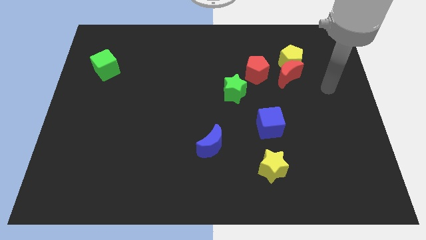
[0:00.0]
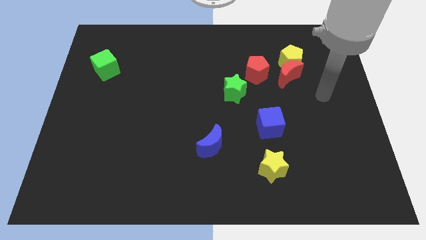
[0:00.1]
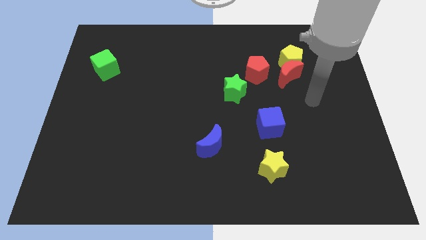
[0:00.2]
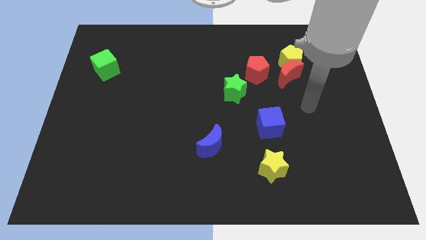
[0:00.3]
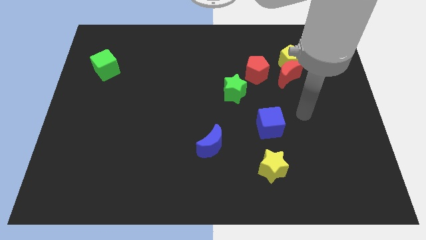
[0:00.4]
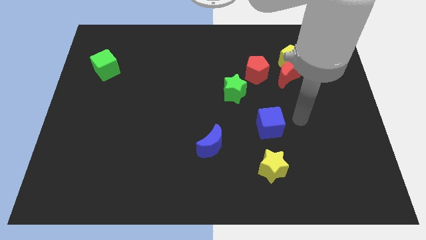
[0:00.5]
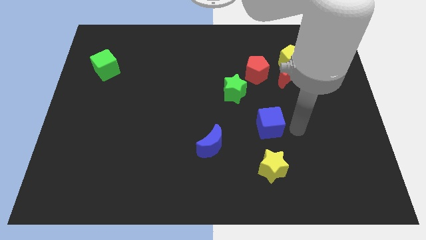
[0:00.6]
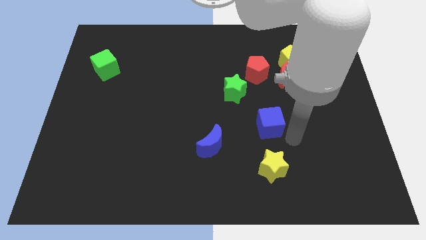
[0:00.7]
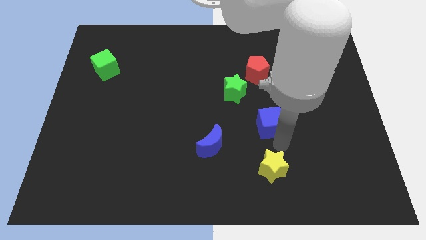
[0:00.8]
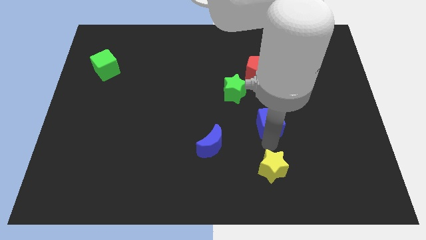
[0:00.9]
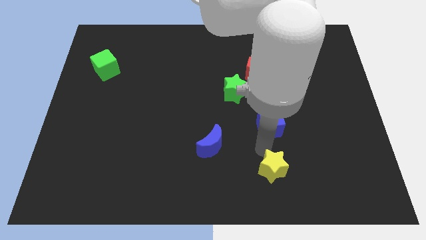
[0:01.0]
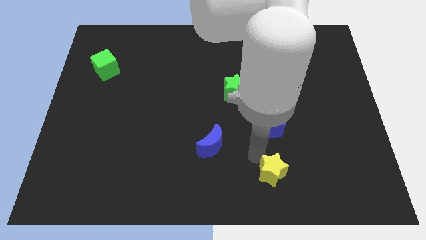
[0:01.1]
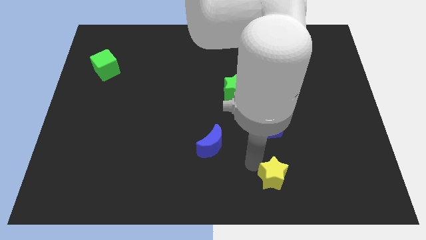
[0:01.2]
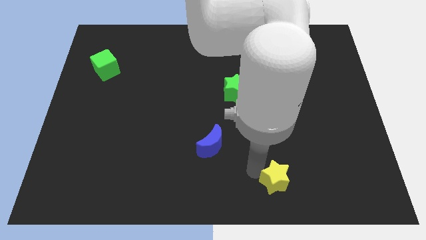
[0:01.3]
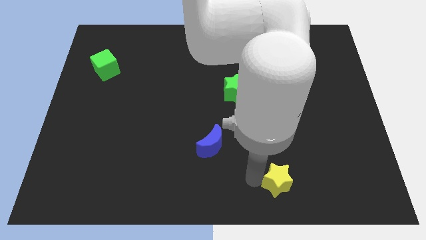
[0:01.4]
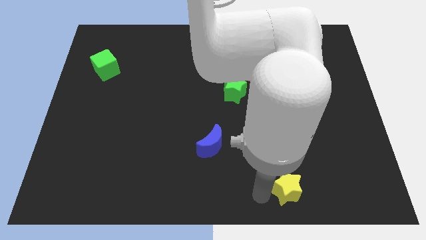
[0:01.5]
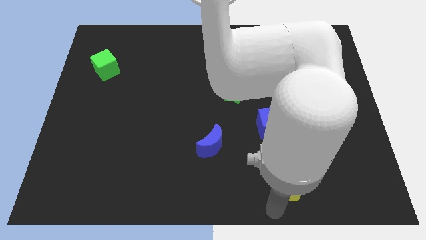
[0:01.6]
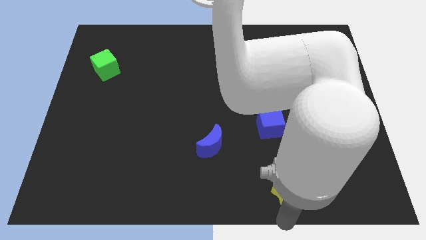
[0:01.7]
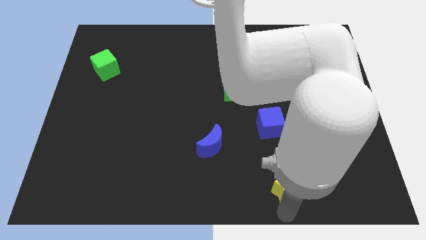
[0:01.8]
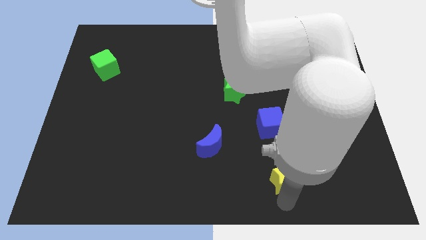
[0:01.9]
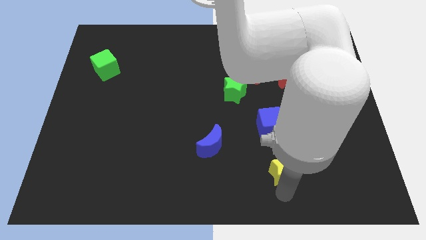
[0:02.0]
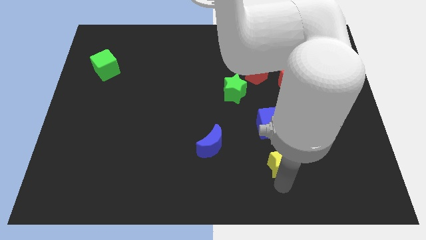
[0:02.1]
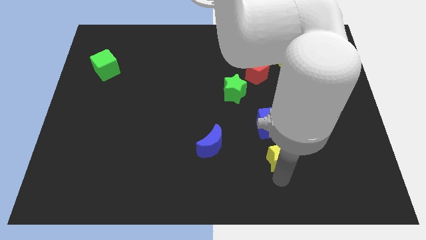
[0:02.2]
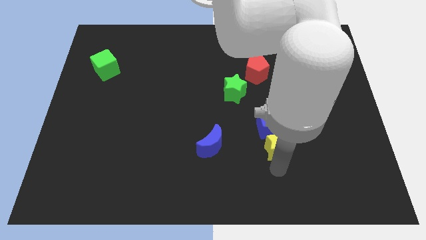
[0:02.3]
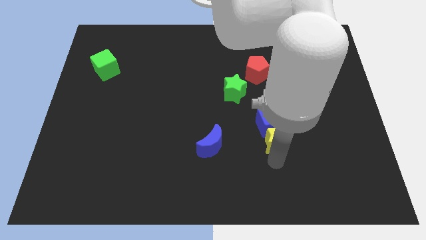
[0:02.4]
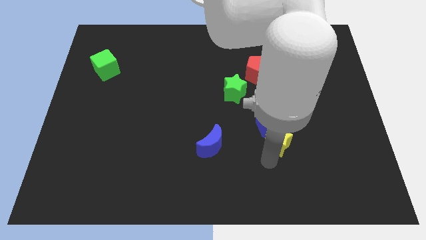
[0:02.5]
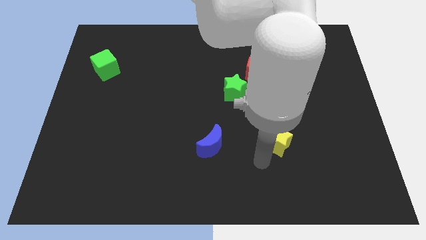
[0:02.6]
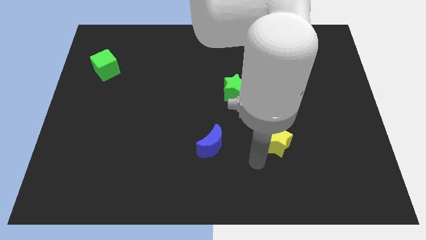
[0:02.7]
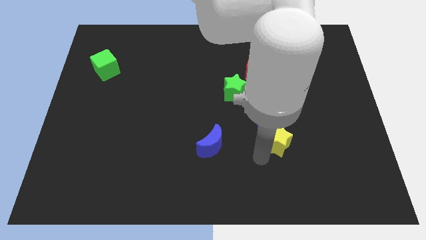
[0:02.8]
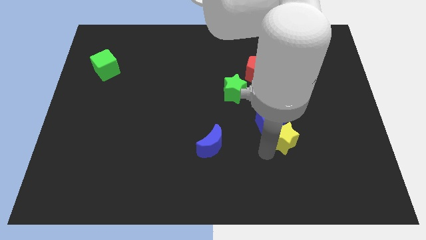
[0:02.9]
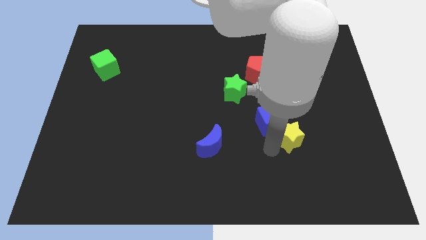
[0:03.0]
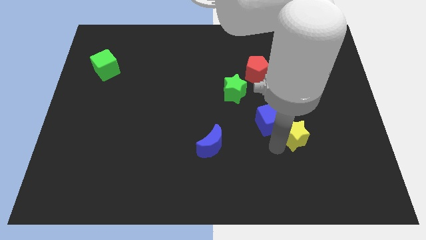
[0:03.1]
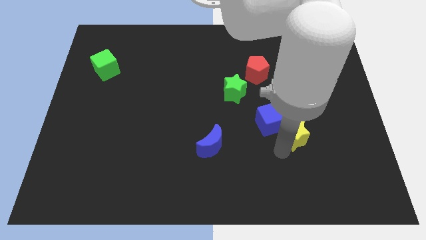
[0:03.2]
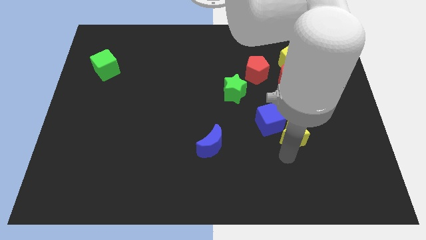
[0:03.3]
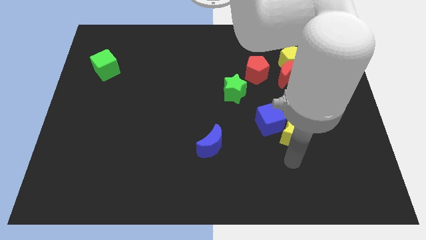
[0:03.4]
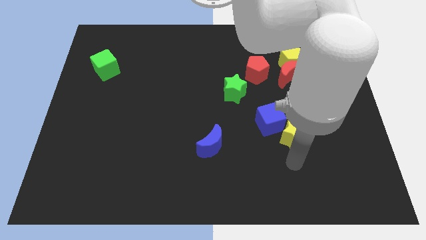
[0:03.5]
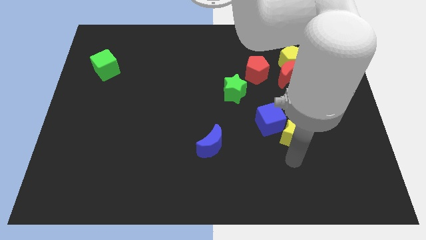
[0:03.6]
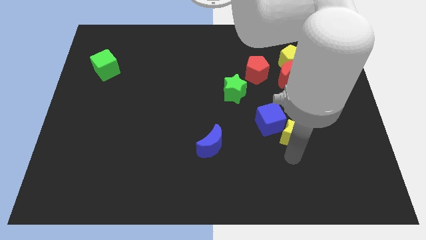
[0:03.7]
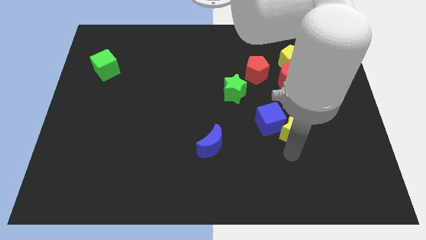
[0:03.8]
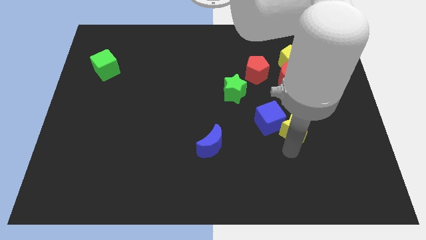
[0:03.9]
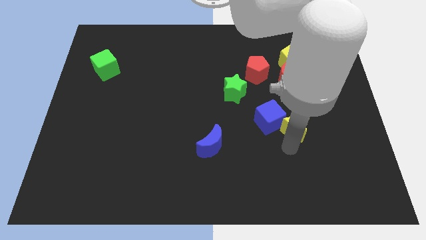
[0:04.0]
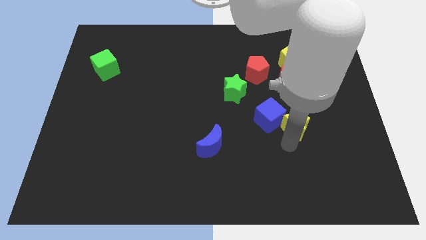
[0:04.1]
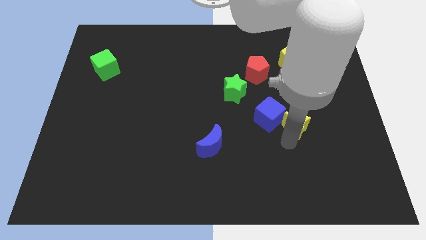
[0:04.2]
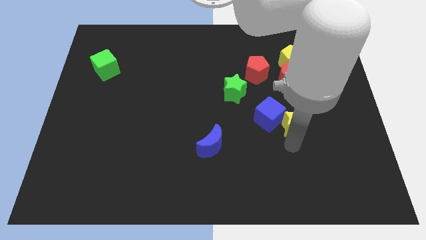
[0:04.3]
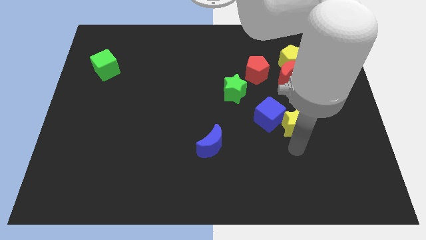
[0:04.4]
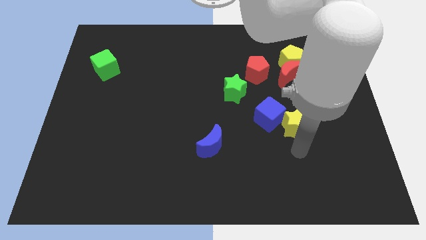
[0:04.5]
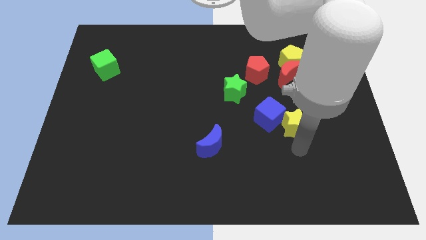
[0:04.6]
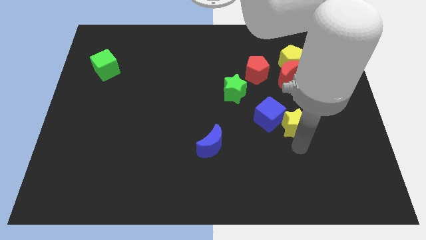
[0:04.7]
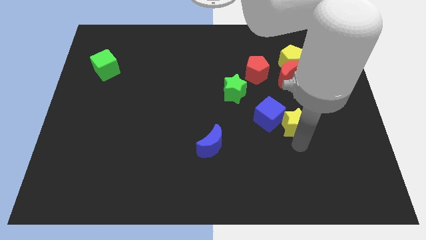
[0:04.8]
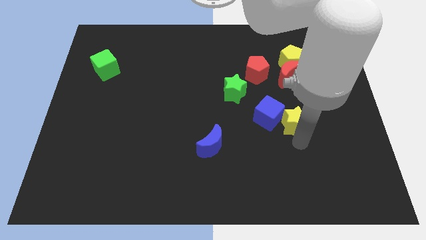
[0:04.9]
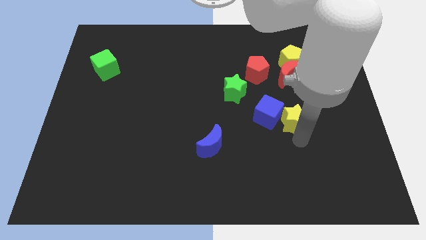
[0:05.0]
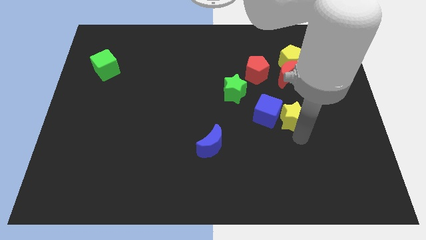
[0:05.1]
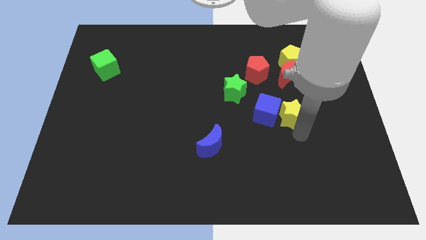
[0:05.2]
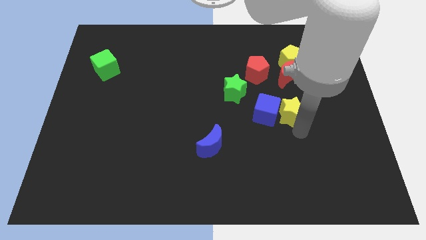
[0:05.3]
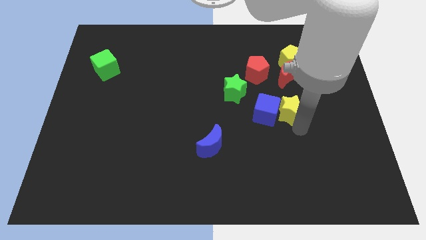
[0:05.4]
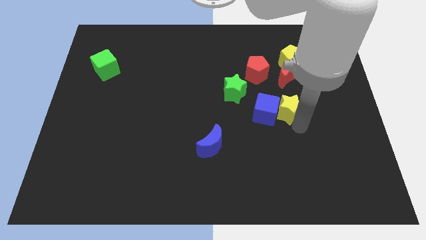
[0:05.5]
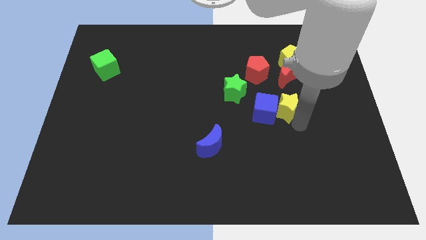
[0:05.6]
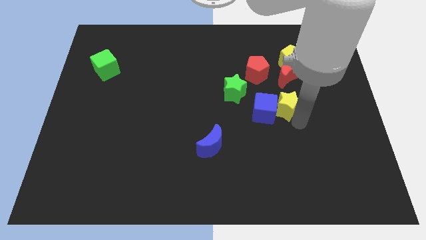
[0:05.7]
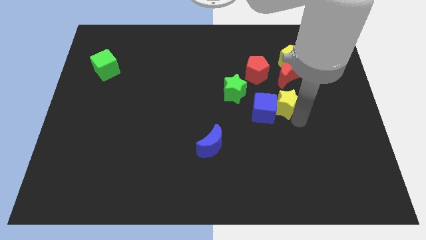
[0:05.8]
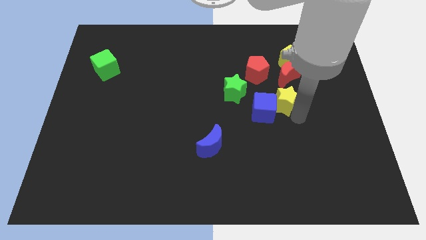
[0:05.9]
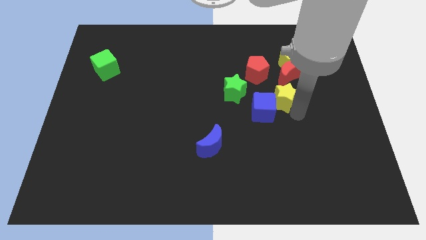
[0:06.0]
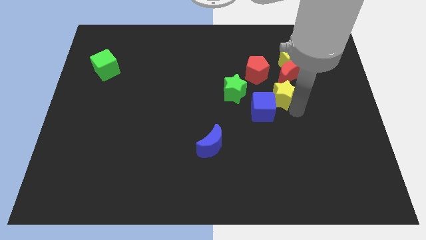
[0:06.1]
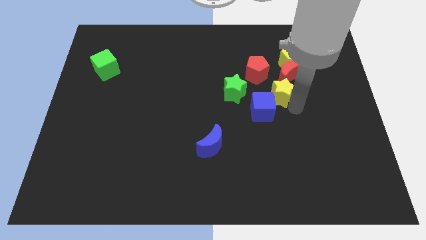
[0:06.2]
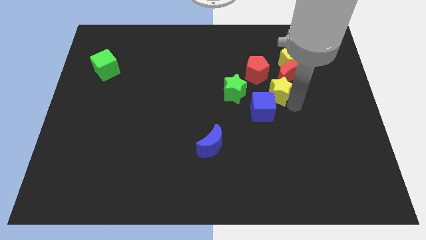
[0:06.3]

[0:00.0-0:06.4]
slide the yellow star close to the red moon
